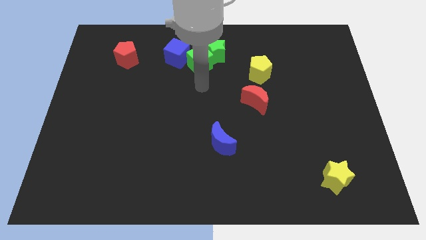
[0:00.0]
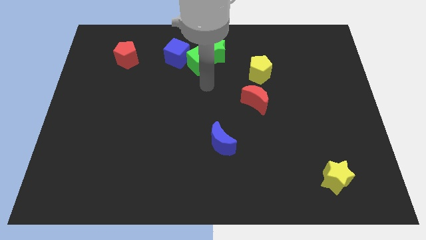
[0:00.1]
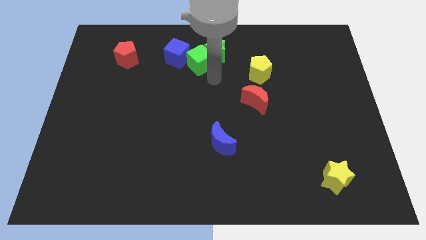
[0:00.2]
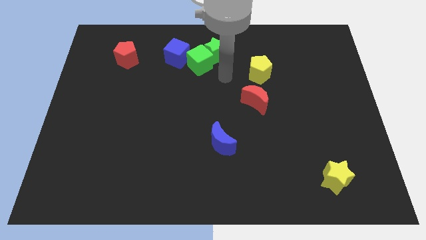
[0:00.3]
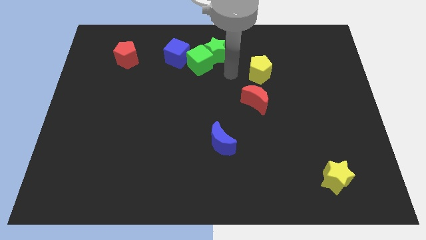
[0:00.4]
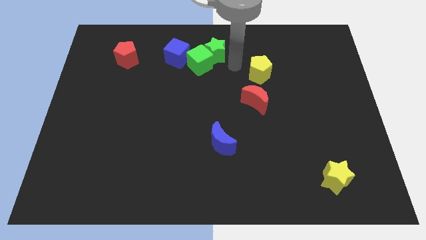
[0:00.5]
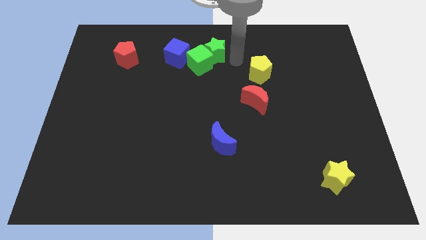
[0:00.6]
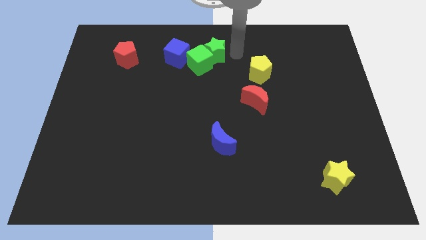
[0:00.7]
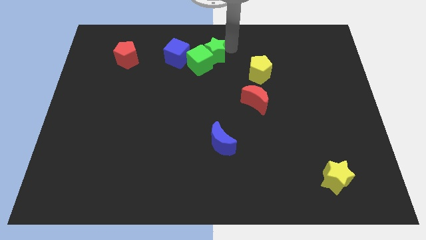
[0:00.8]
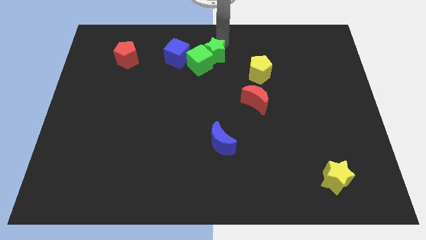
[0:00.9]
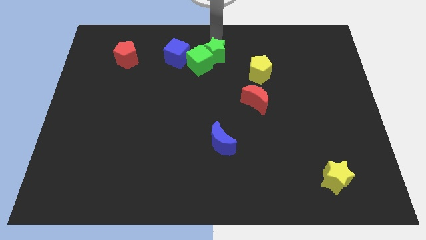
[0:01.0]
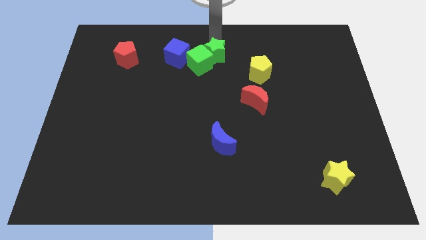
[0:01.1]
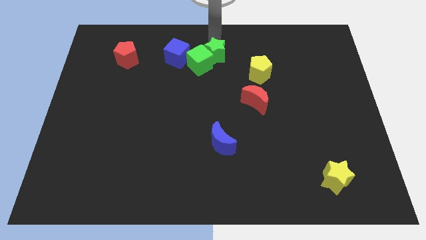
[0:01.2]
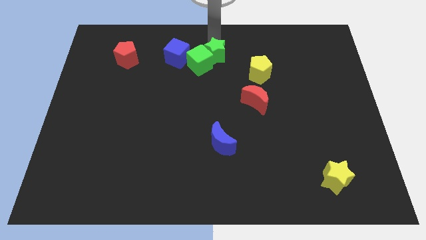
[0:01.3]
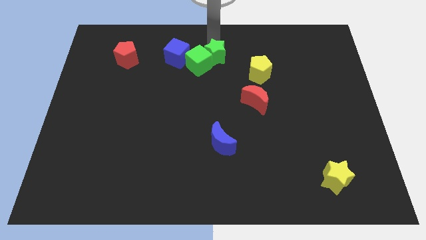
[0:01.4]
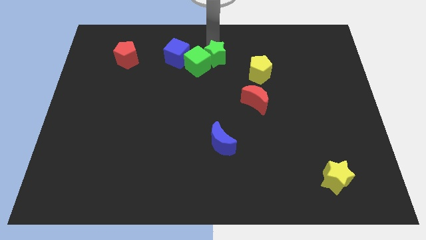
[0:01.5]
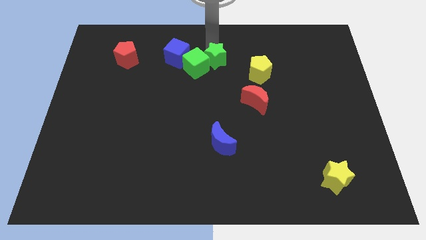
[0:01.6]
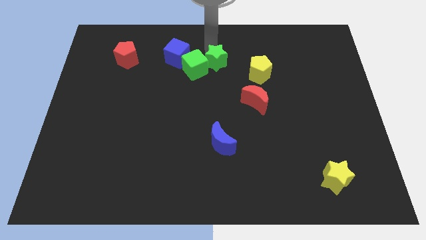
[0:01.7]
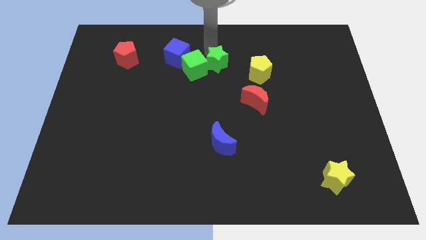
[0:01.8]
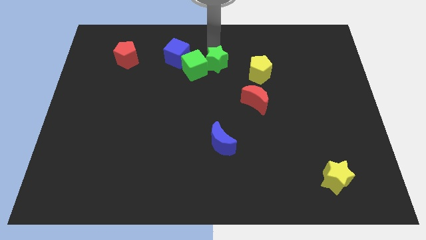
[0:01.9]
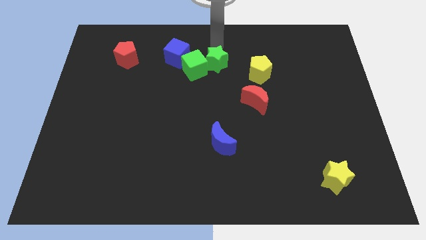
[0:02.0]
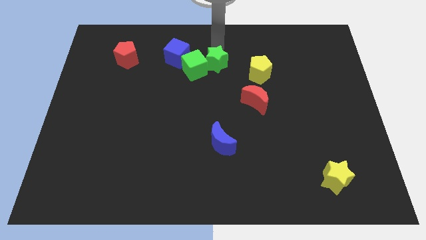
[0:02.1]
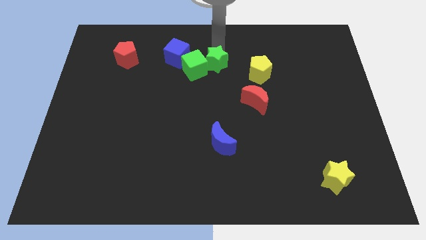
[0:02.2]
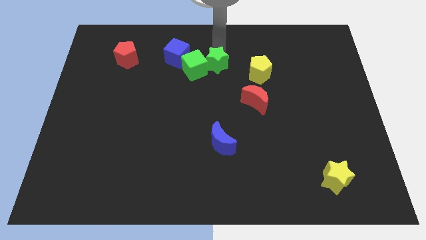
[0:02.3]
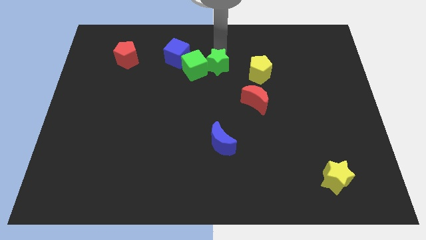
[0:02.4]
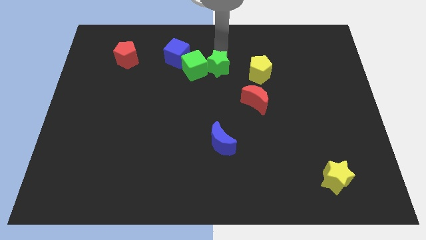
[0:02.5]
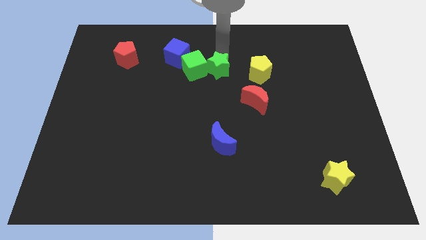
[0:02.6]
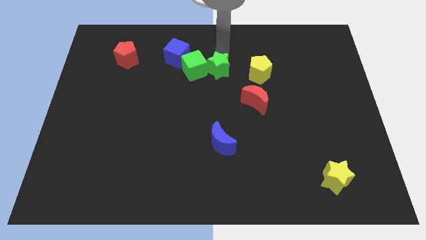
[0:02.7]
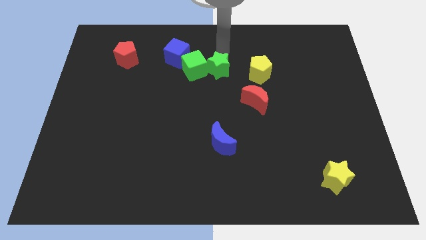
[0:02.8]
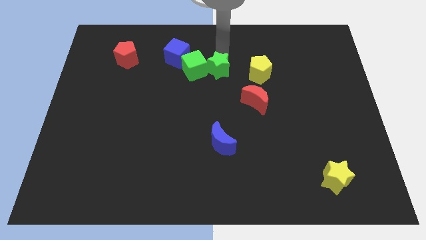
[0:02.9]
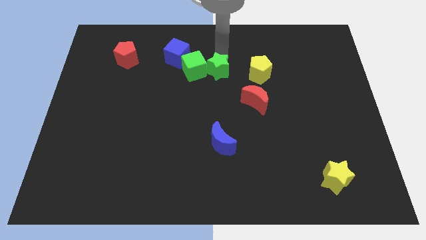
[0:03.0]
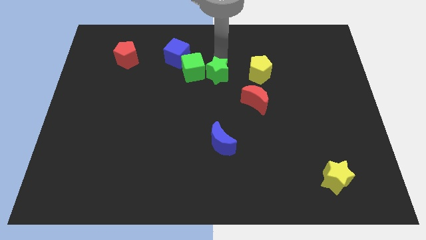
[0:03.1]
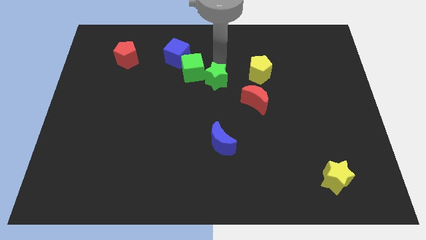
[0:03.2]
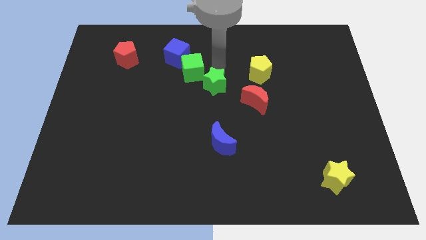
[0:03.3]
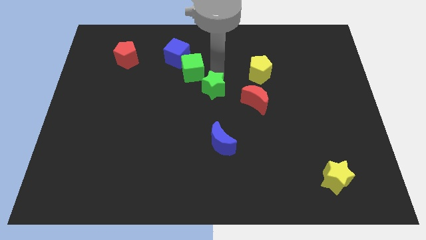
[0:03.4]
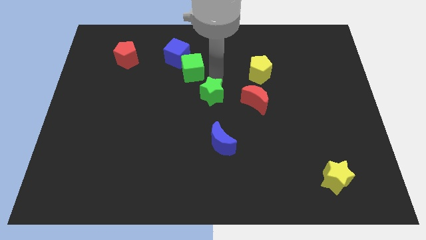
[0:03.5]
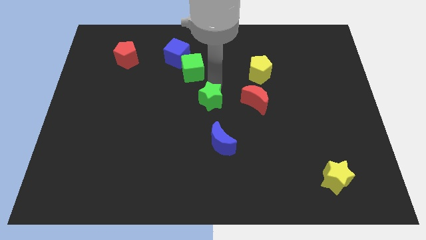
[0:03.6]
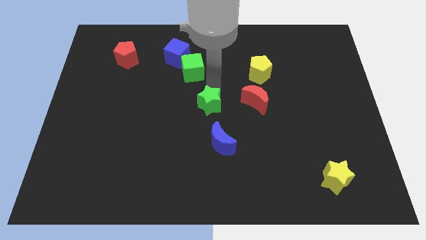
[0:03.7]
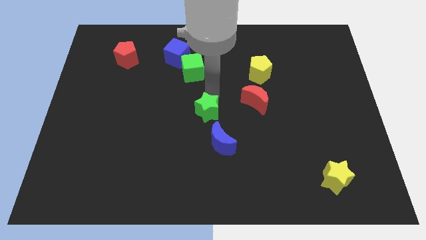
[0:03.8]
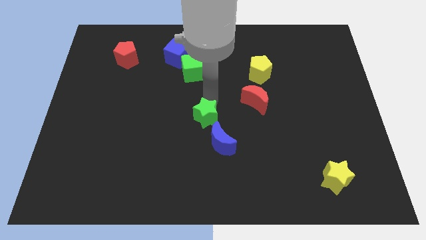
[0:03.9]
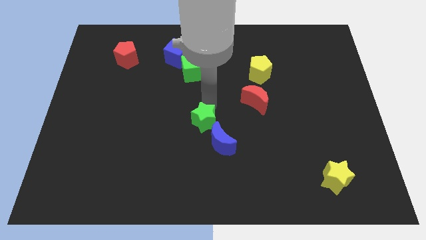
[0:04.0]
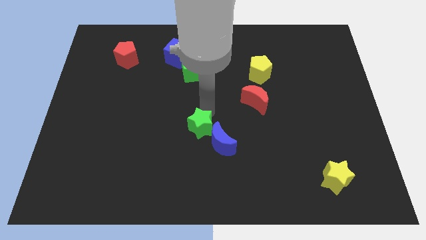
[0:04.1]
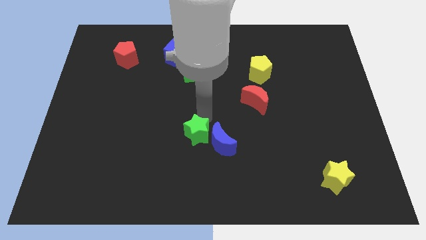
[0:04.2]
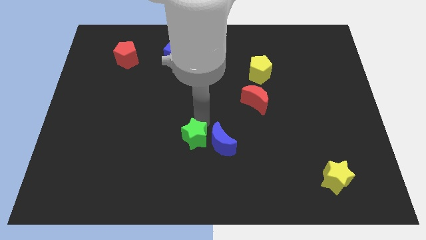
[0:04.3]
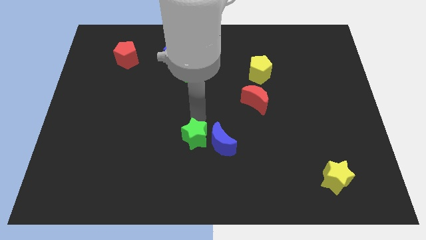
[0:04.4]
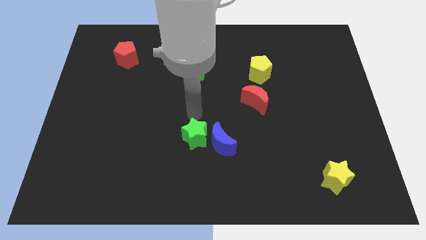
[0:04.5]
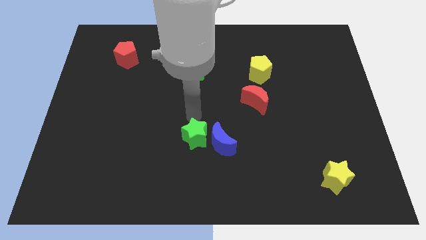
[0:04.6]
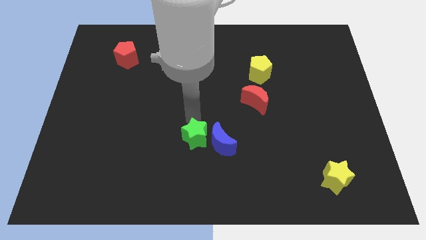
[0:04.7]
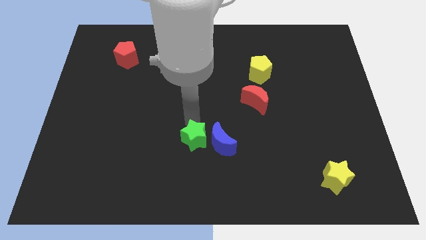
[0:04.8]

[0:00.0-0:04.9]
push the green star diagonally down and to the left of the blue moon

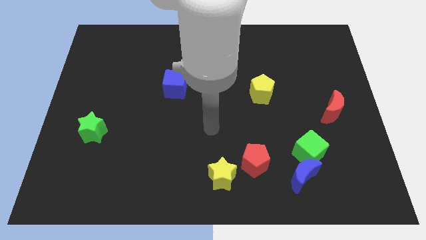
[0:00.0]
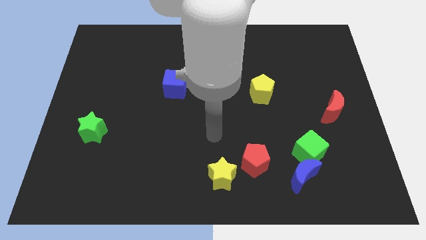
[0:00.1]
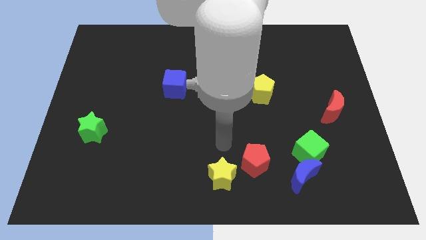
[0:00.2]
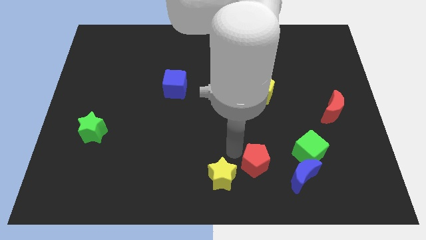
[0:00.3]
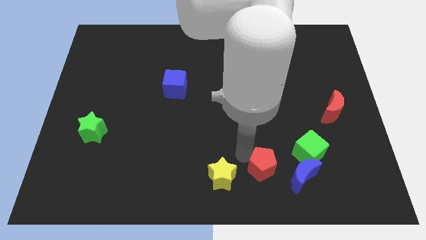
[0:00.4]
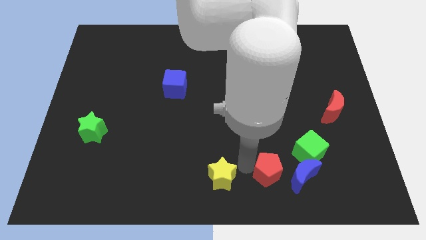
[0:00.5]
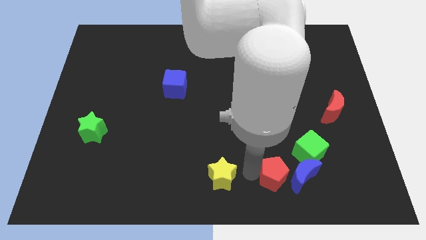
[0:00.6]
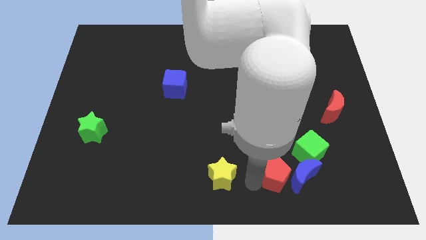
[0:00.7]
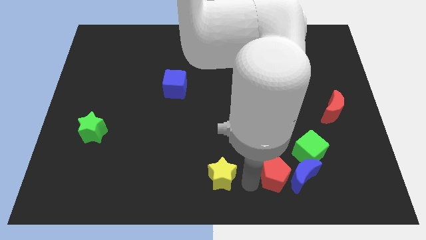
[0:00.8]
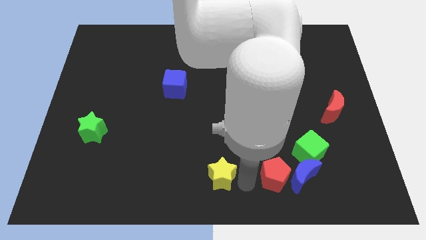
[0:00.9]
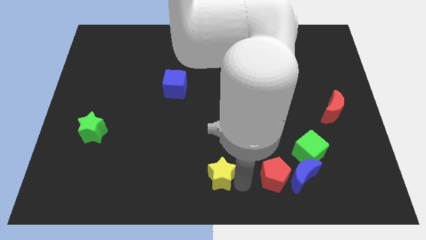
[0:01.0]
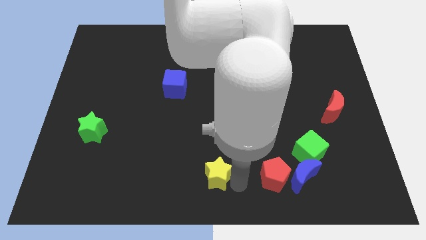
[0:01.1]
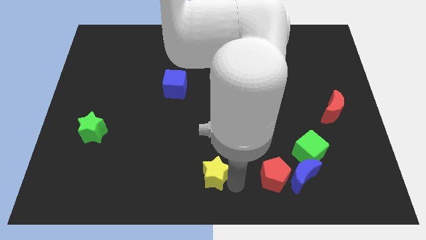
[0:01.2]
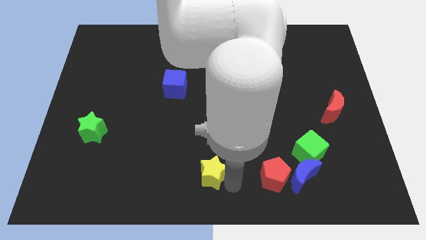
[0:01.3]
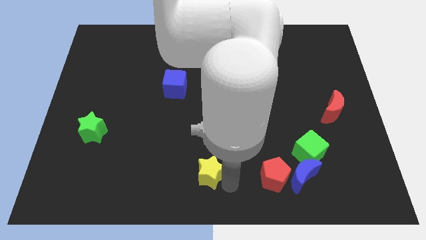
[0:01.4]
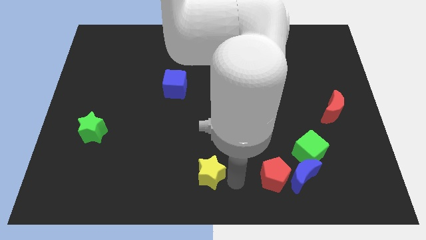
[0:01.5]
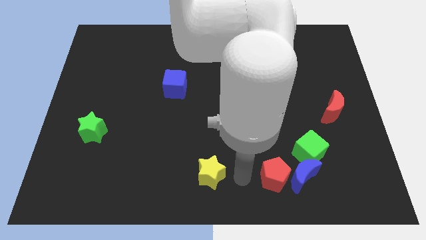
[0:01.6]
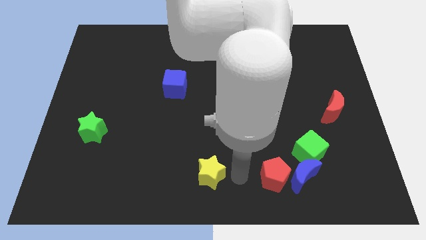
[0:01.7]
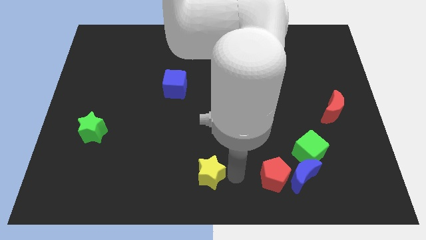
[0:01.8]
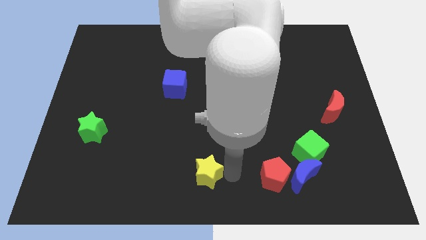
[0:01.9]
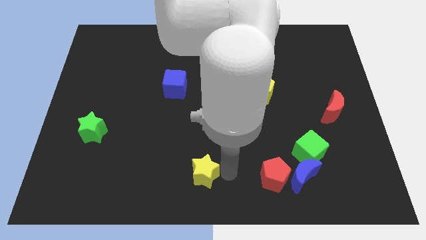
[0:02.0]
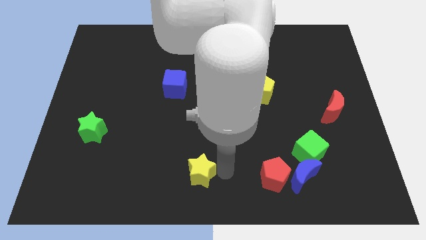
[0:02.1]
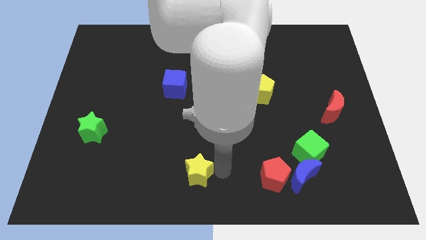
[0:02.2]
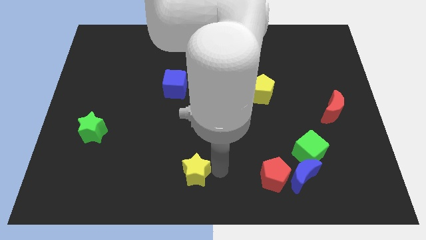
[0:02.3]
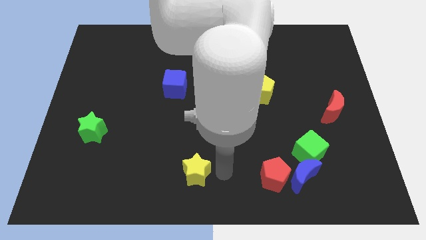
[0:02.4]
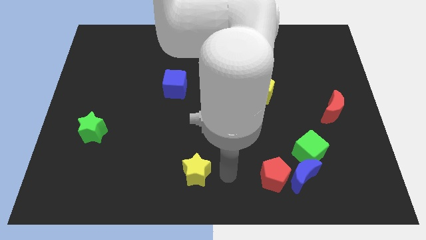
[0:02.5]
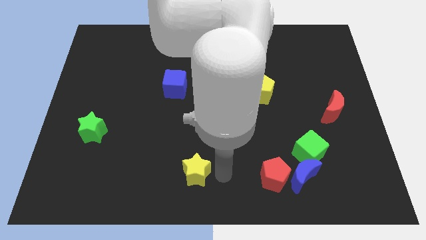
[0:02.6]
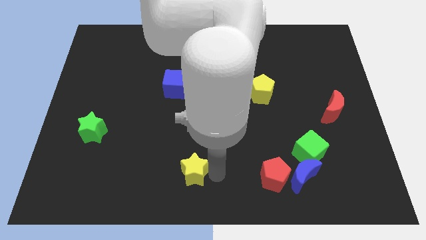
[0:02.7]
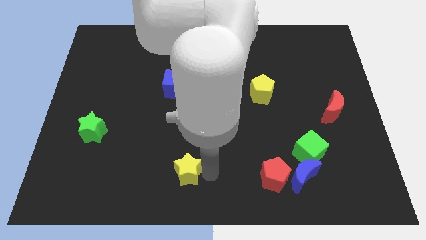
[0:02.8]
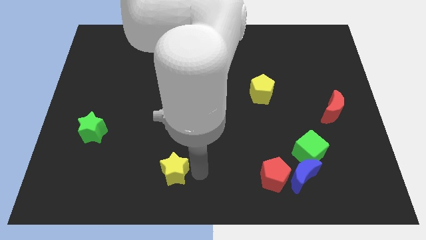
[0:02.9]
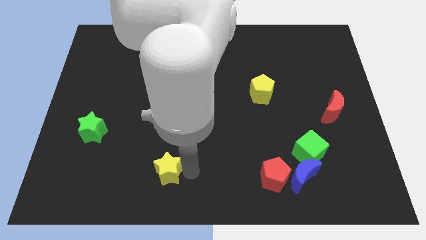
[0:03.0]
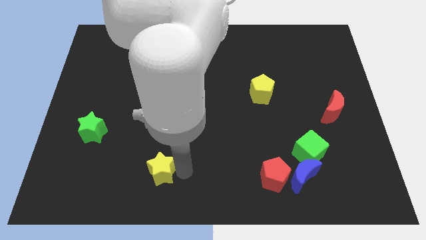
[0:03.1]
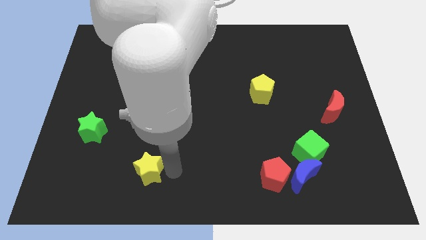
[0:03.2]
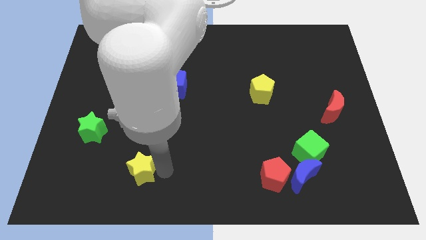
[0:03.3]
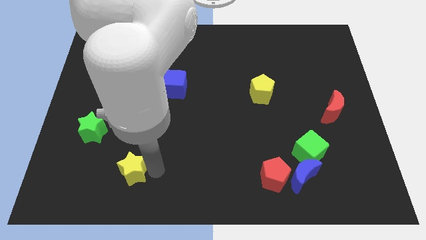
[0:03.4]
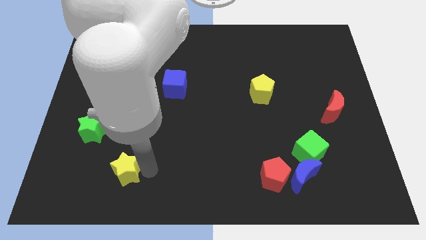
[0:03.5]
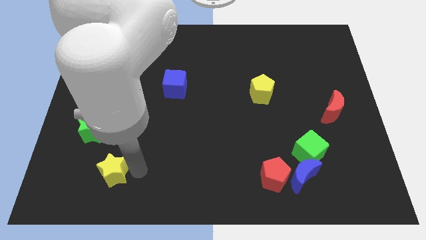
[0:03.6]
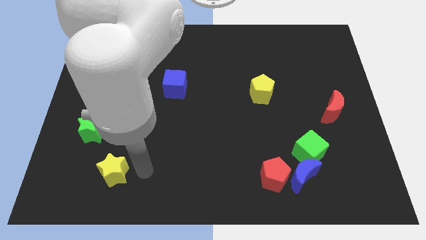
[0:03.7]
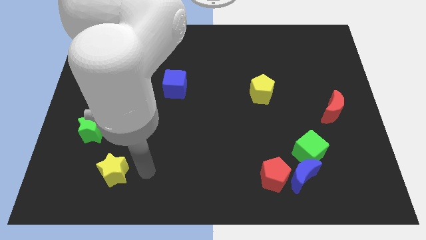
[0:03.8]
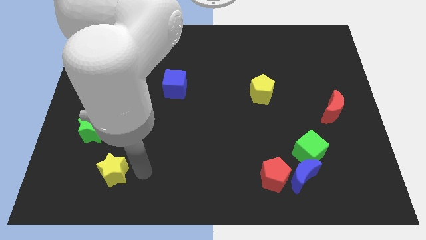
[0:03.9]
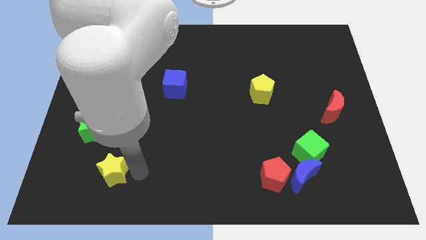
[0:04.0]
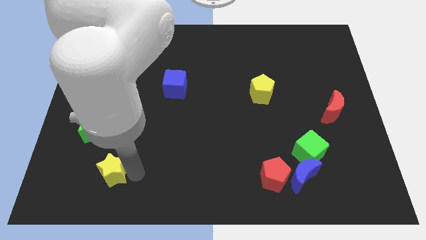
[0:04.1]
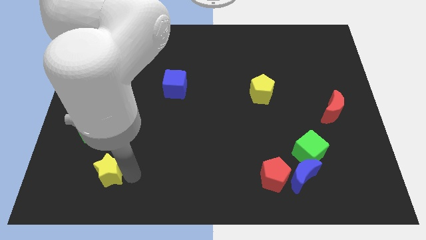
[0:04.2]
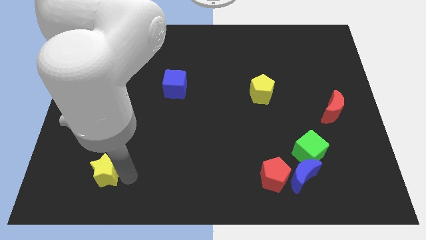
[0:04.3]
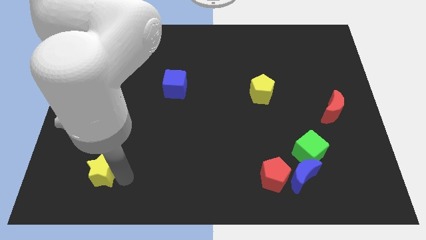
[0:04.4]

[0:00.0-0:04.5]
move the yellow star below the green star
